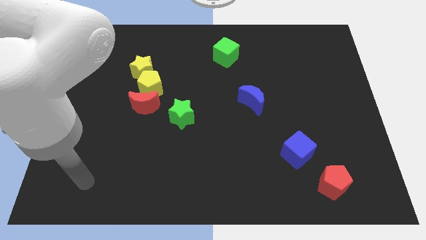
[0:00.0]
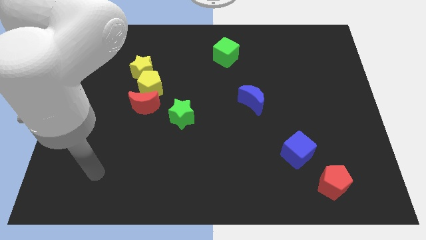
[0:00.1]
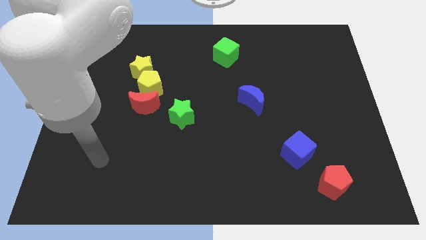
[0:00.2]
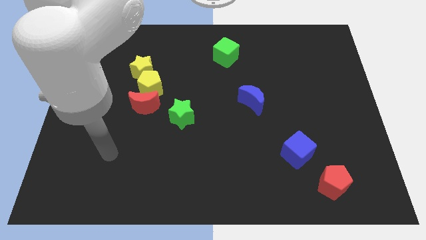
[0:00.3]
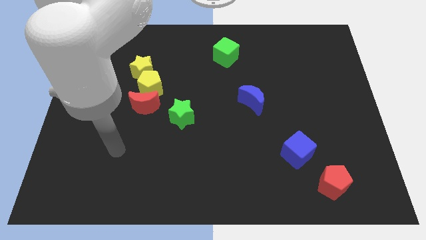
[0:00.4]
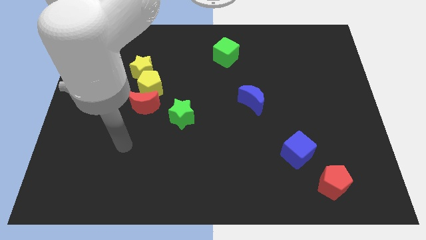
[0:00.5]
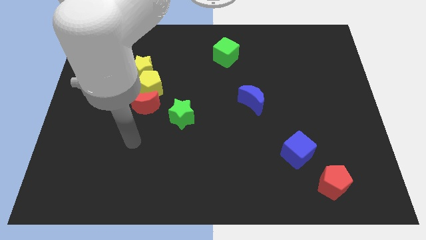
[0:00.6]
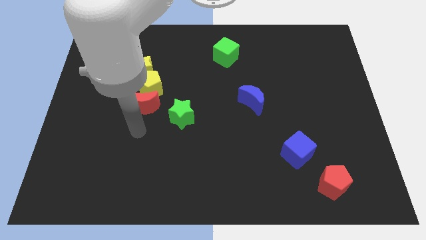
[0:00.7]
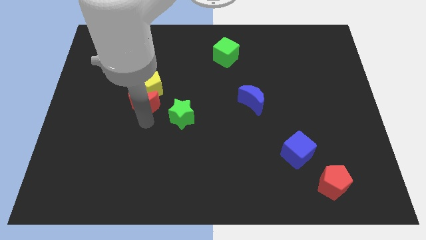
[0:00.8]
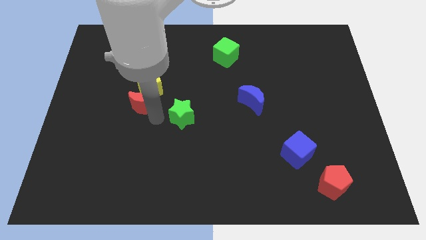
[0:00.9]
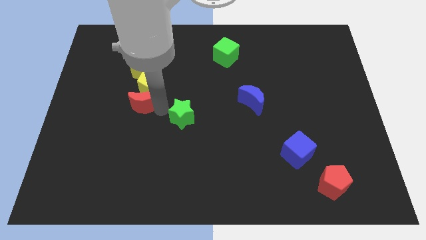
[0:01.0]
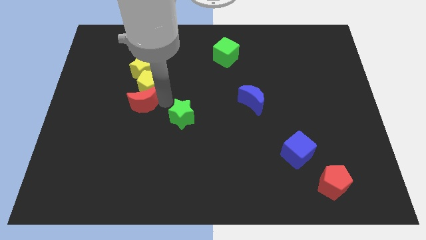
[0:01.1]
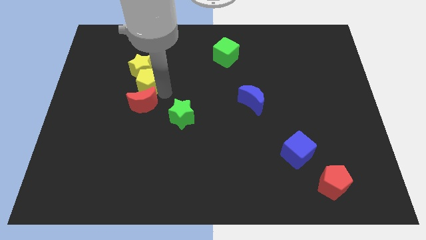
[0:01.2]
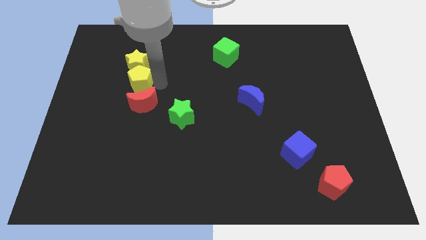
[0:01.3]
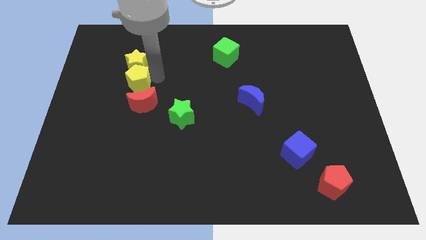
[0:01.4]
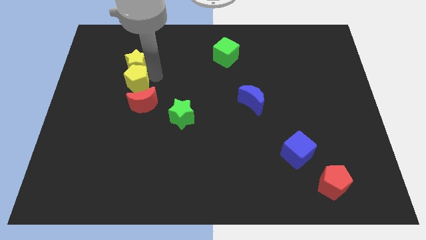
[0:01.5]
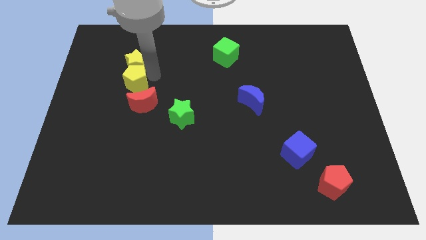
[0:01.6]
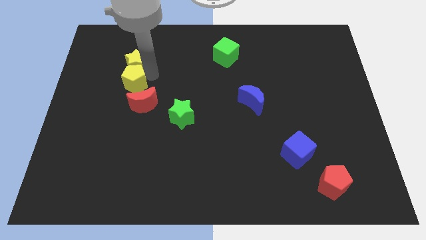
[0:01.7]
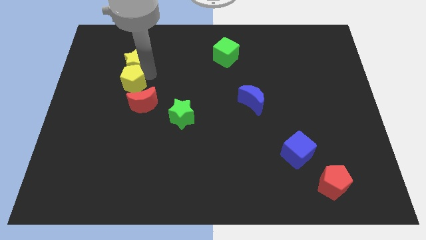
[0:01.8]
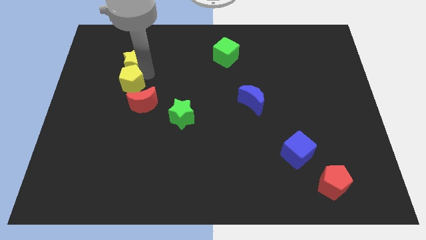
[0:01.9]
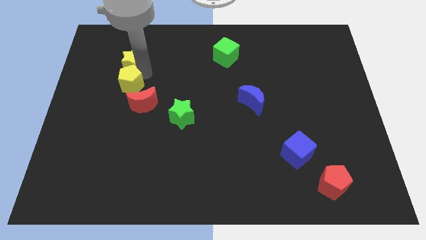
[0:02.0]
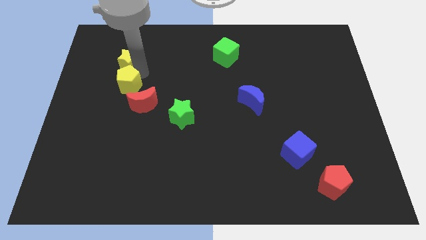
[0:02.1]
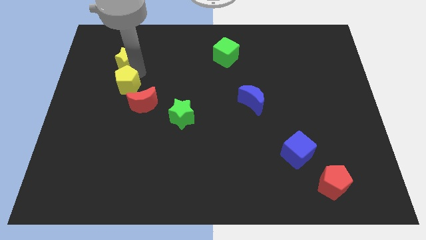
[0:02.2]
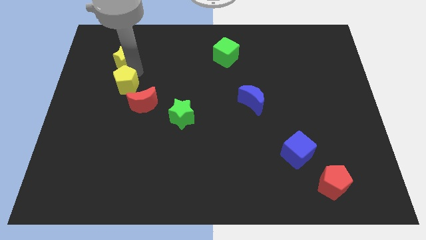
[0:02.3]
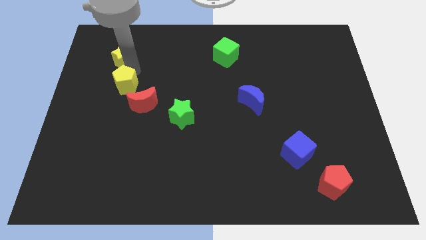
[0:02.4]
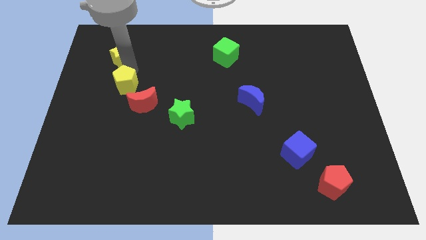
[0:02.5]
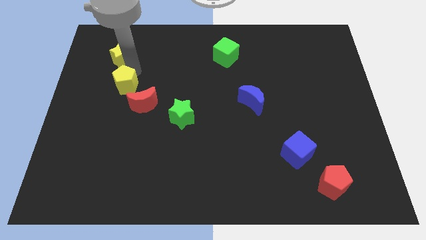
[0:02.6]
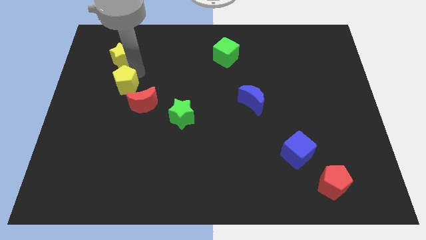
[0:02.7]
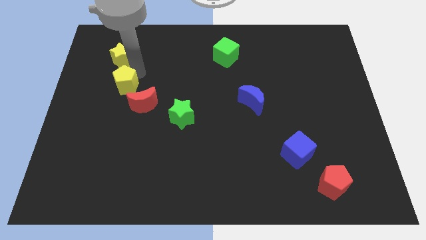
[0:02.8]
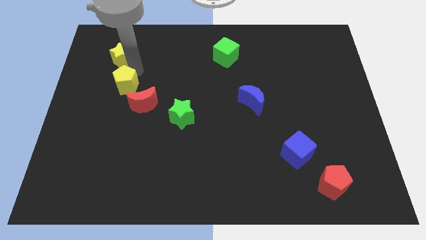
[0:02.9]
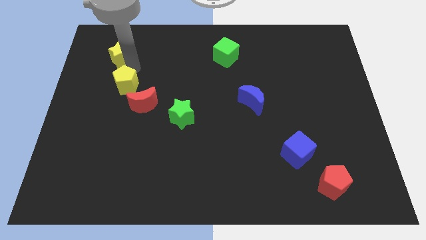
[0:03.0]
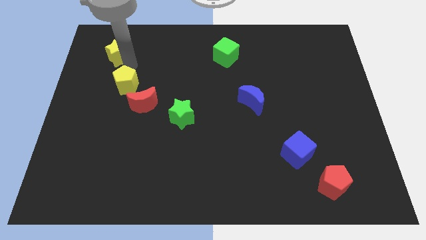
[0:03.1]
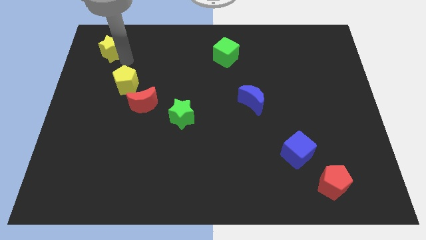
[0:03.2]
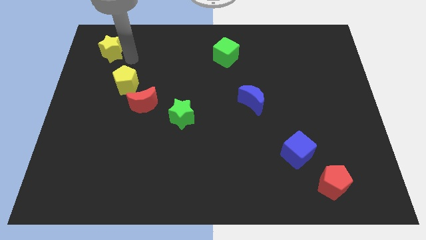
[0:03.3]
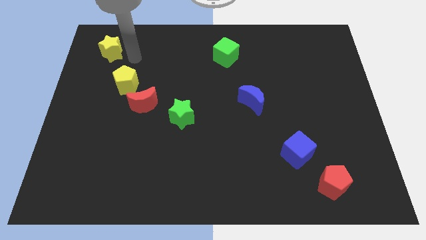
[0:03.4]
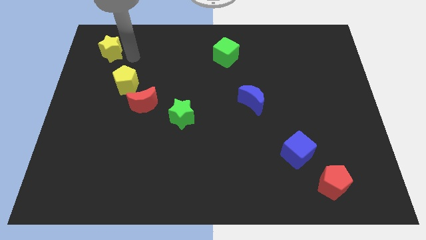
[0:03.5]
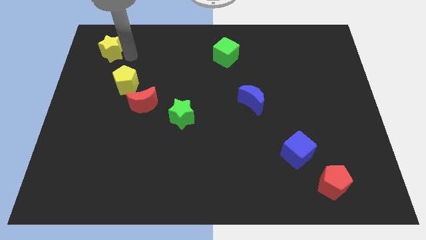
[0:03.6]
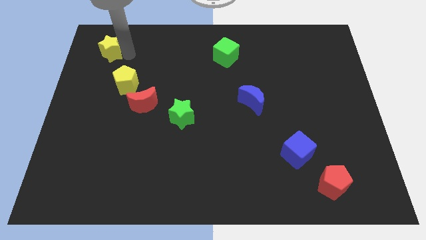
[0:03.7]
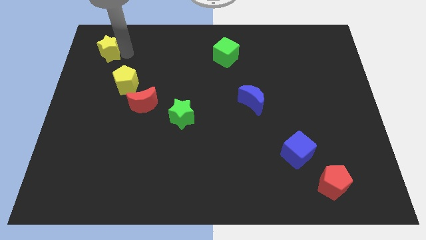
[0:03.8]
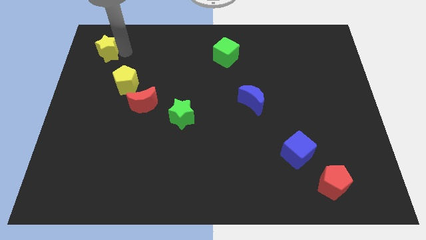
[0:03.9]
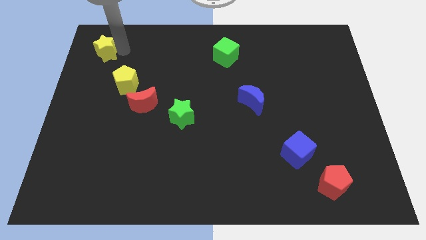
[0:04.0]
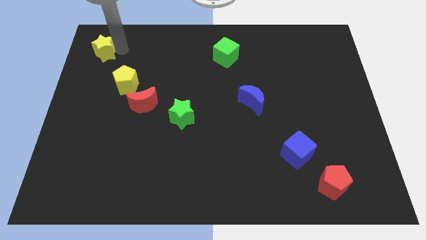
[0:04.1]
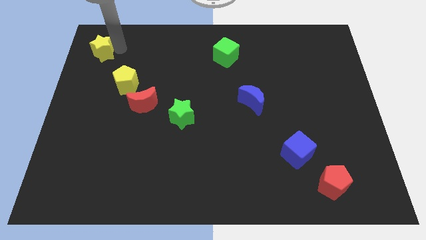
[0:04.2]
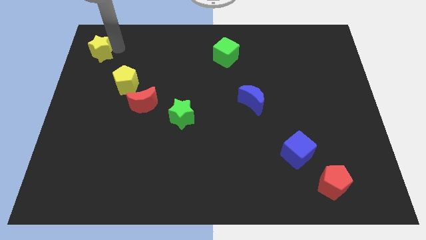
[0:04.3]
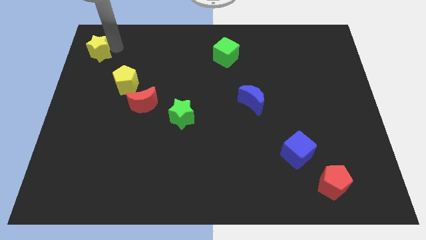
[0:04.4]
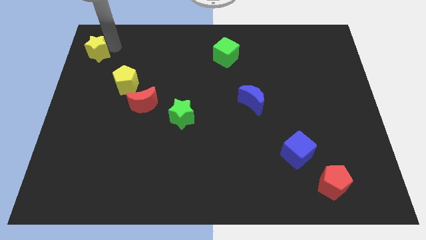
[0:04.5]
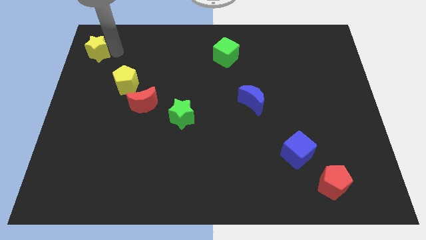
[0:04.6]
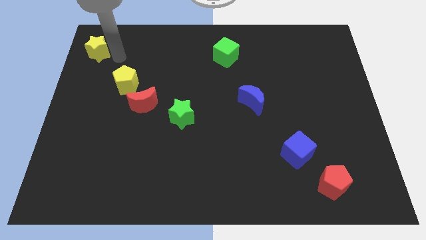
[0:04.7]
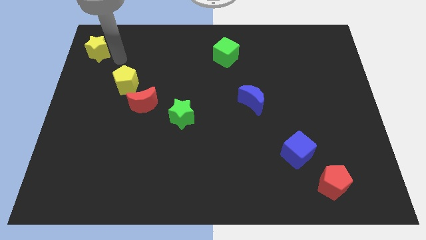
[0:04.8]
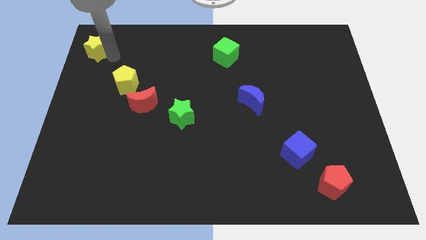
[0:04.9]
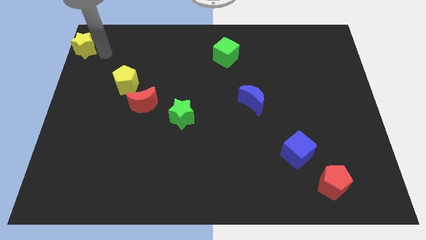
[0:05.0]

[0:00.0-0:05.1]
put the yellow star to the top left

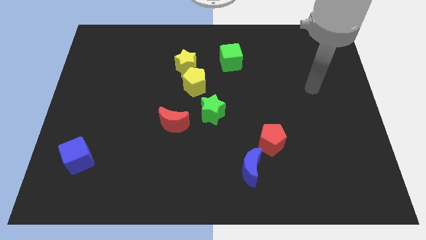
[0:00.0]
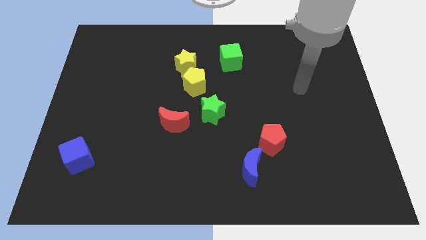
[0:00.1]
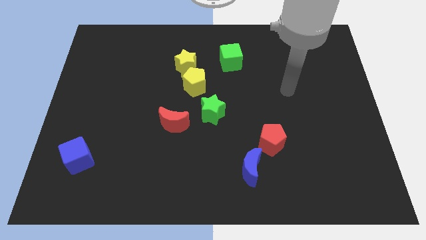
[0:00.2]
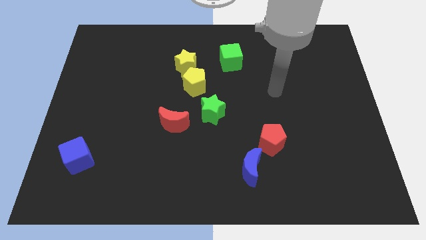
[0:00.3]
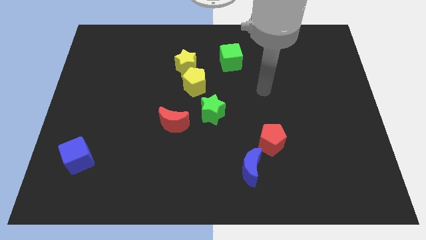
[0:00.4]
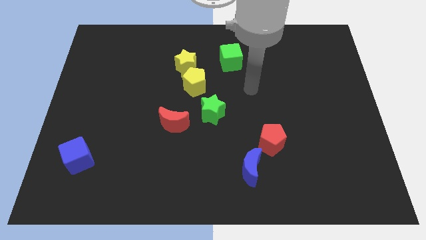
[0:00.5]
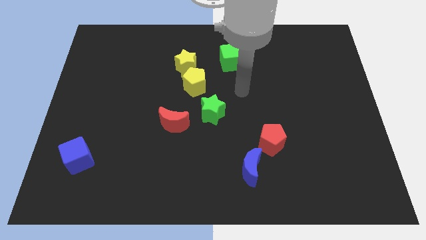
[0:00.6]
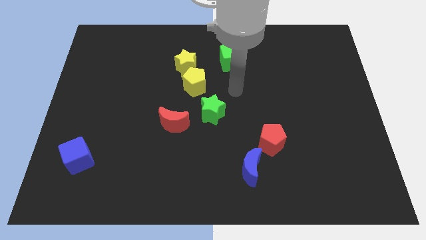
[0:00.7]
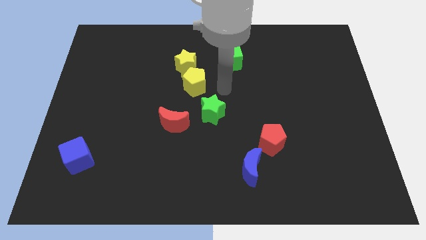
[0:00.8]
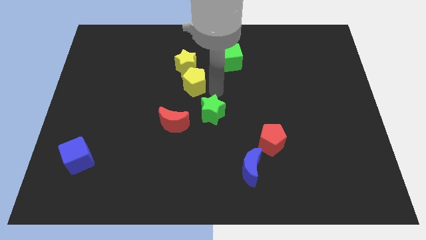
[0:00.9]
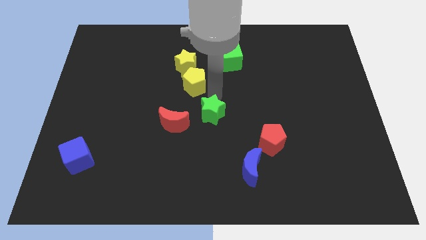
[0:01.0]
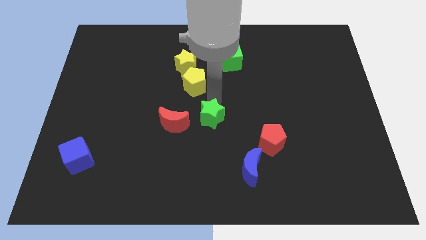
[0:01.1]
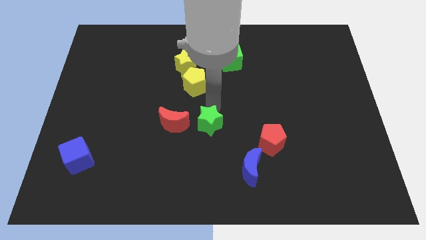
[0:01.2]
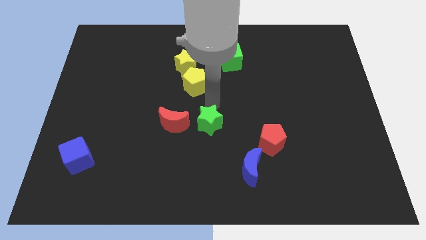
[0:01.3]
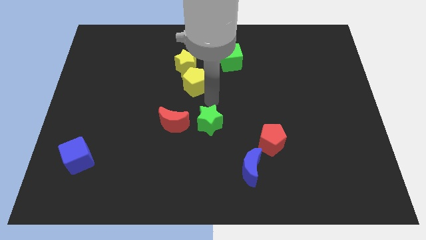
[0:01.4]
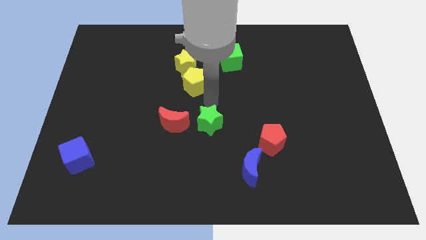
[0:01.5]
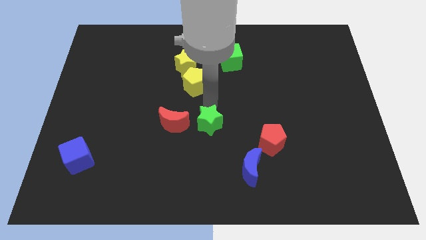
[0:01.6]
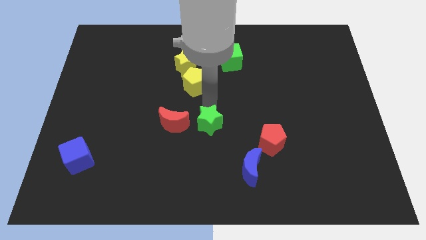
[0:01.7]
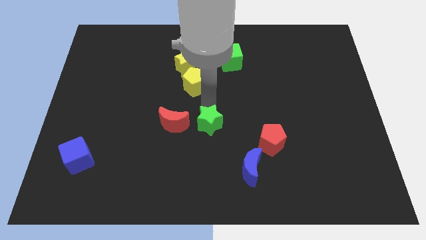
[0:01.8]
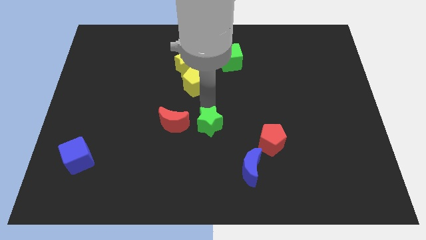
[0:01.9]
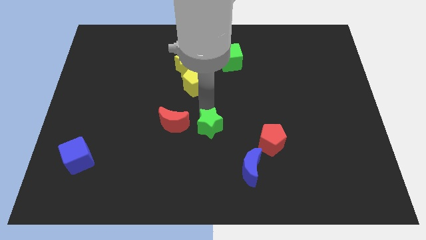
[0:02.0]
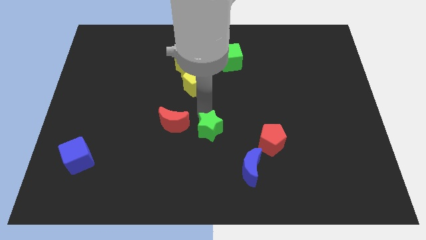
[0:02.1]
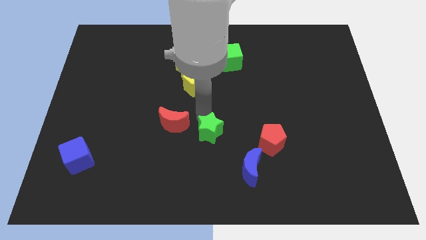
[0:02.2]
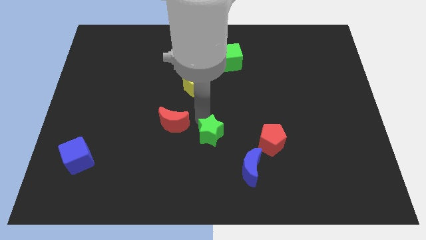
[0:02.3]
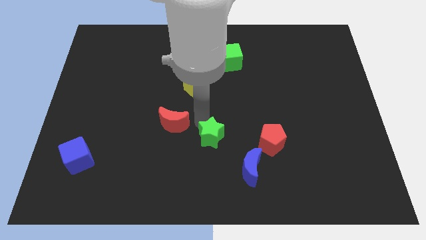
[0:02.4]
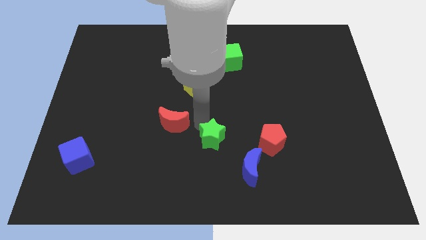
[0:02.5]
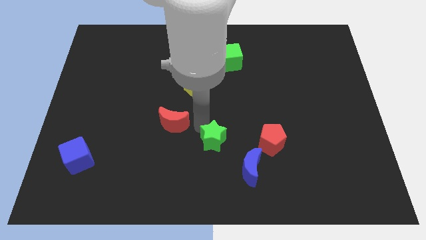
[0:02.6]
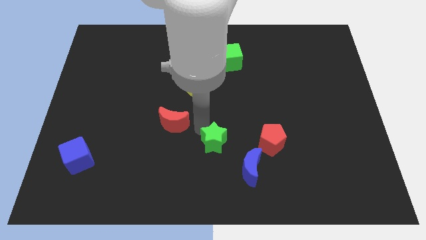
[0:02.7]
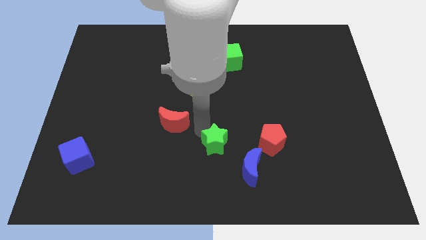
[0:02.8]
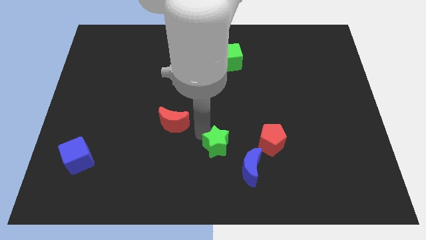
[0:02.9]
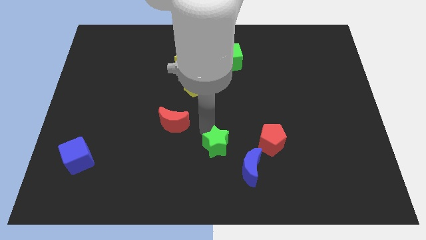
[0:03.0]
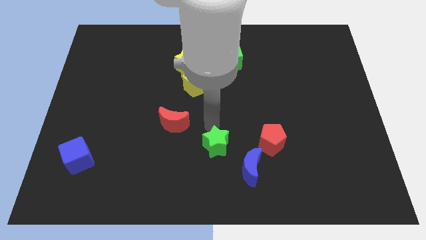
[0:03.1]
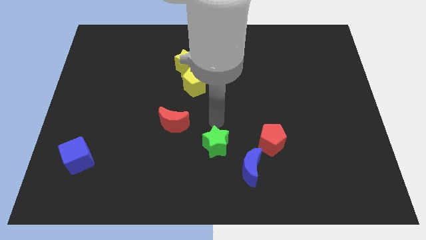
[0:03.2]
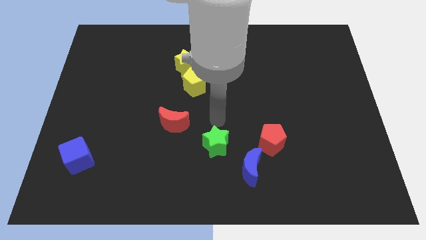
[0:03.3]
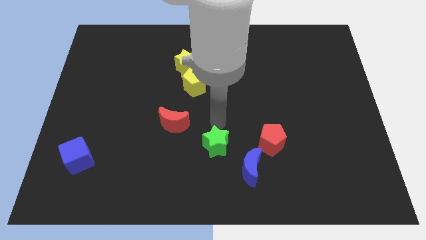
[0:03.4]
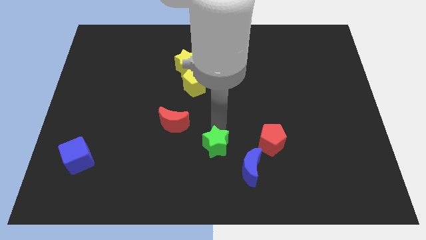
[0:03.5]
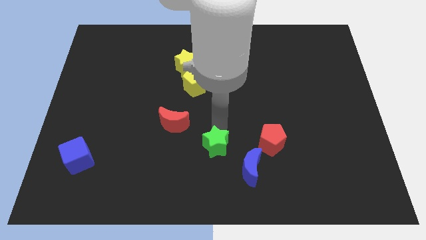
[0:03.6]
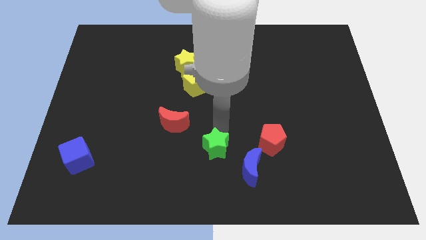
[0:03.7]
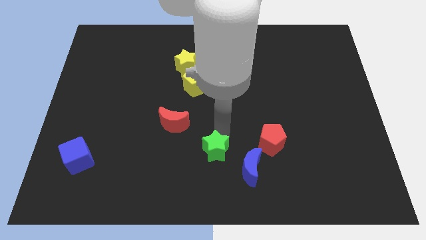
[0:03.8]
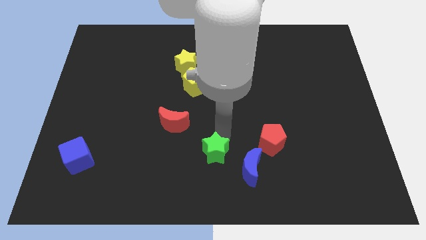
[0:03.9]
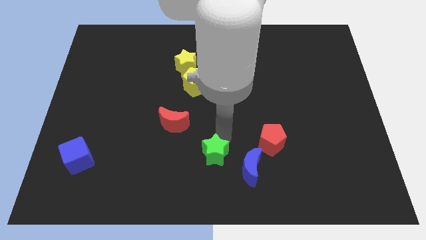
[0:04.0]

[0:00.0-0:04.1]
push the green star to the bottom side
